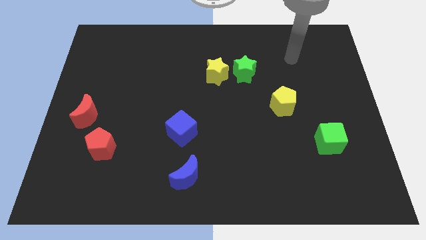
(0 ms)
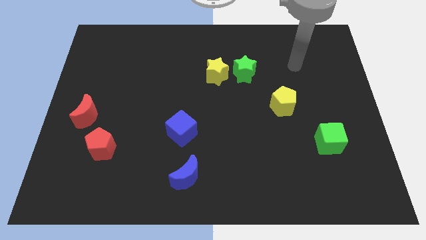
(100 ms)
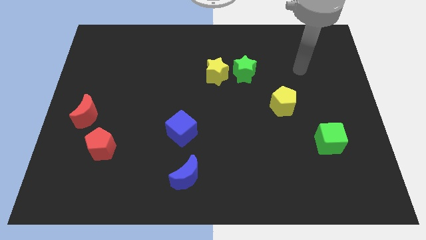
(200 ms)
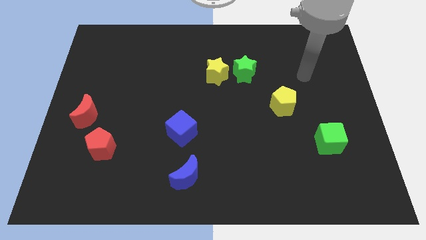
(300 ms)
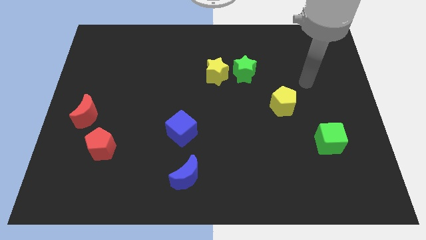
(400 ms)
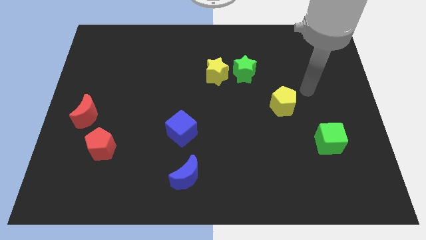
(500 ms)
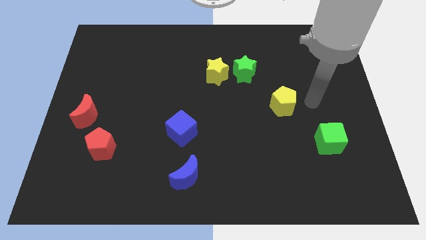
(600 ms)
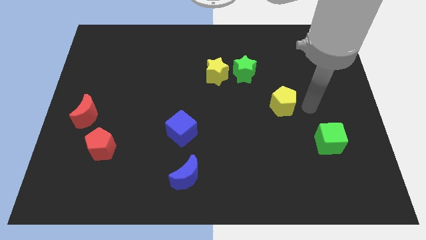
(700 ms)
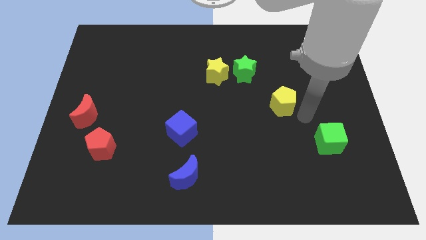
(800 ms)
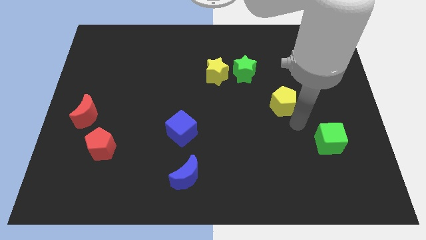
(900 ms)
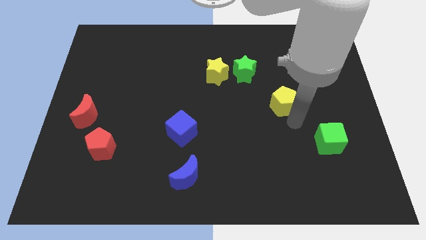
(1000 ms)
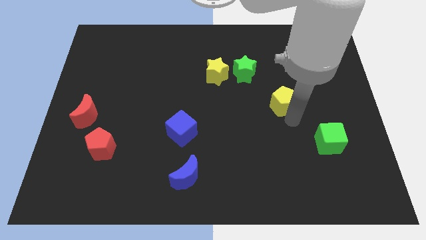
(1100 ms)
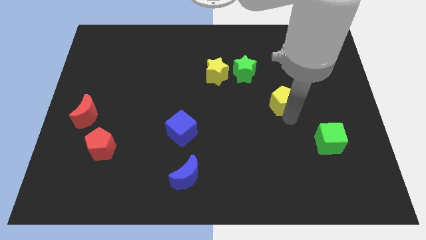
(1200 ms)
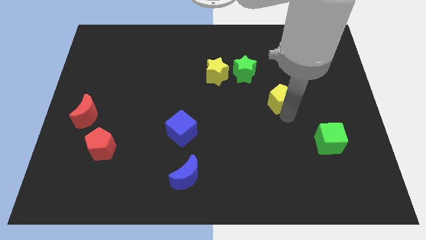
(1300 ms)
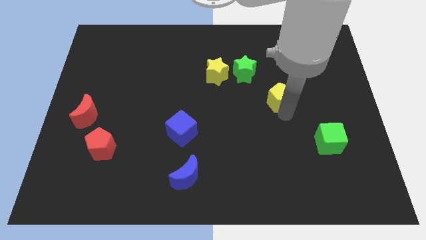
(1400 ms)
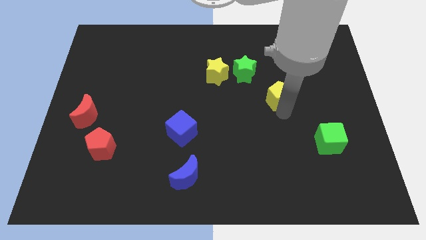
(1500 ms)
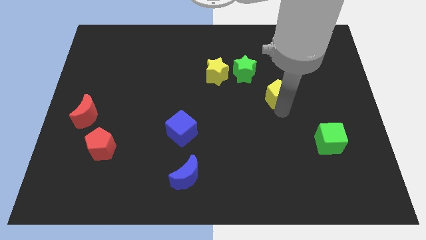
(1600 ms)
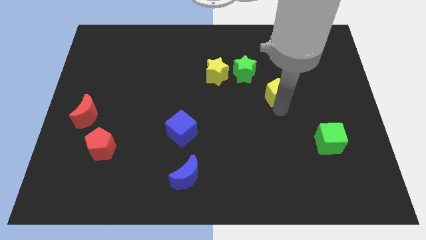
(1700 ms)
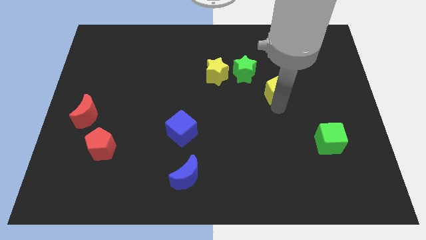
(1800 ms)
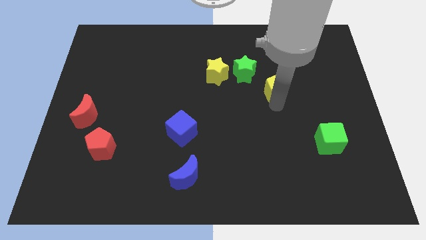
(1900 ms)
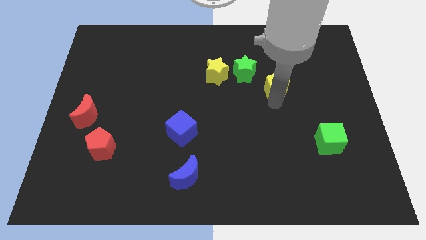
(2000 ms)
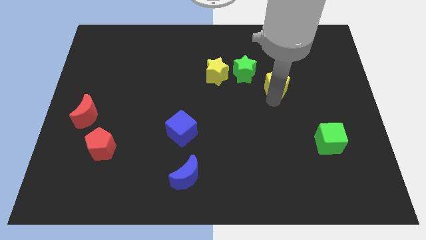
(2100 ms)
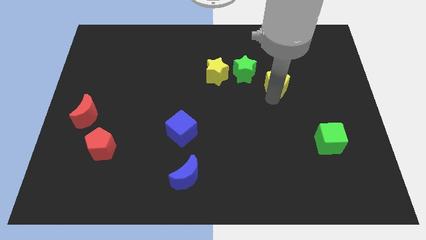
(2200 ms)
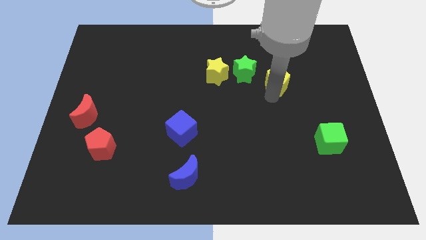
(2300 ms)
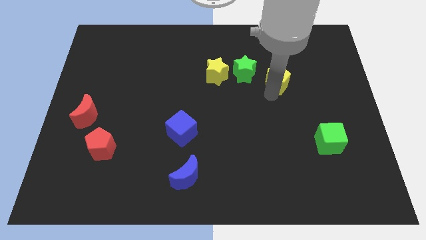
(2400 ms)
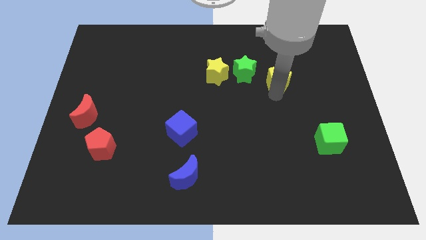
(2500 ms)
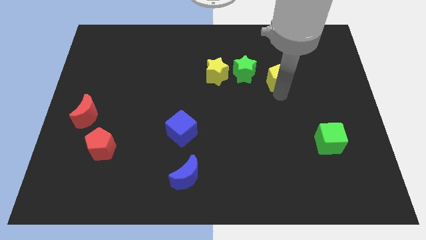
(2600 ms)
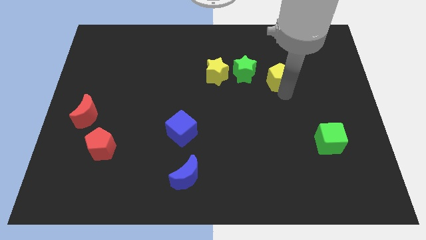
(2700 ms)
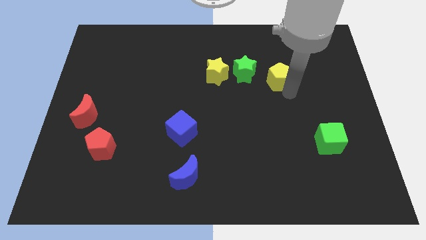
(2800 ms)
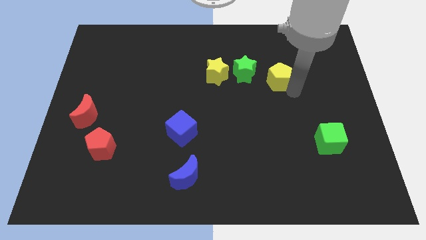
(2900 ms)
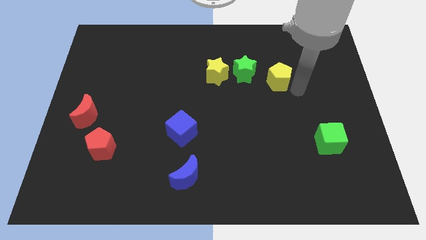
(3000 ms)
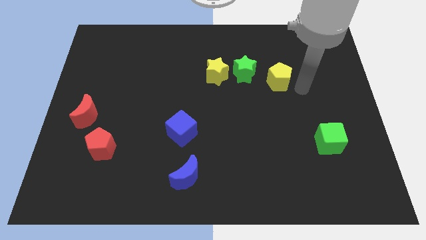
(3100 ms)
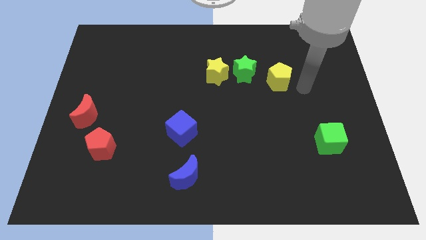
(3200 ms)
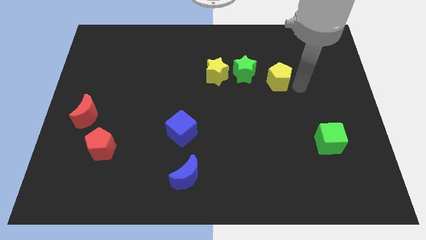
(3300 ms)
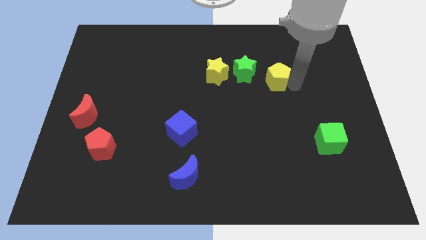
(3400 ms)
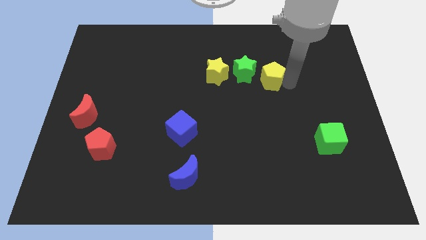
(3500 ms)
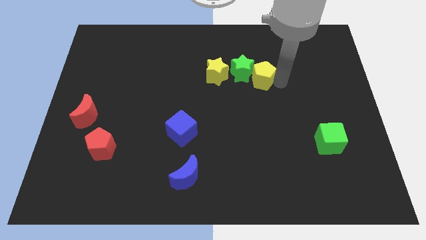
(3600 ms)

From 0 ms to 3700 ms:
push the yellow pentagon a little bit upwards and left

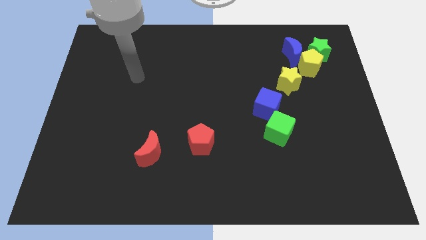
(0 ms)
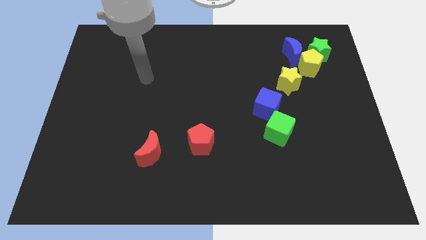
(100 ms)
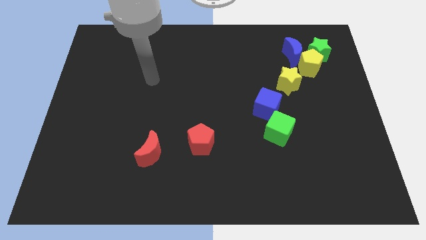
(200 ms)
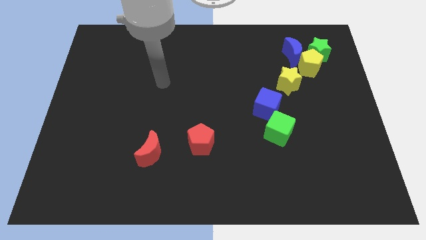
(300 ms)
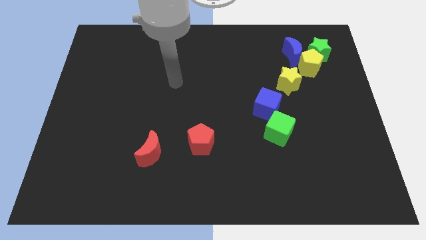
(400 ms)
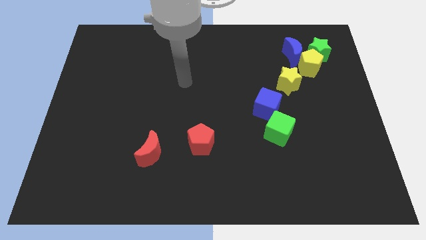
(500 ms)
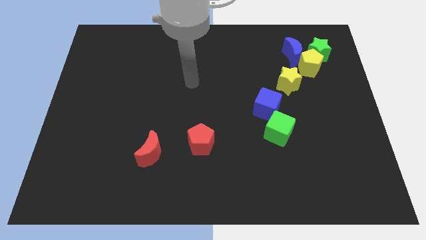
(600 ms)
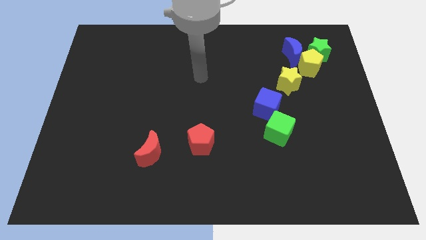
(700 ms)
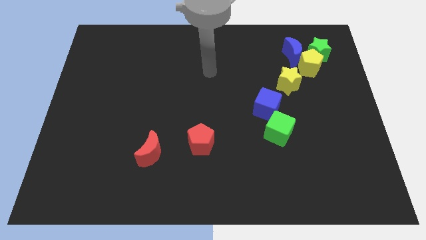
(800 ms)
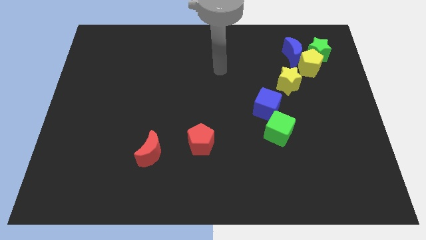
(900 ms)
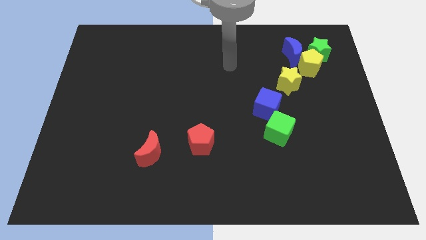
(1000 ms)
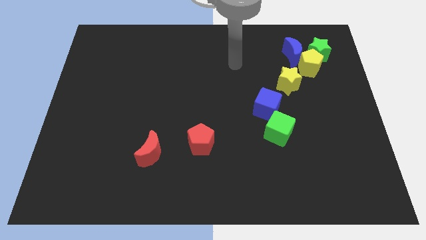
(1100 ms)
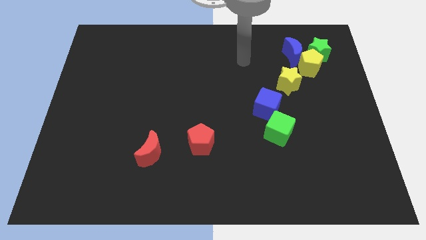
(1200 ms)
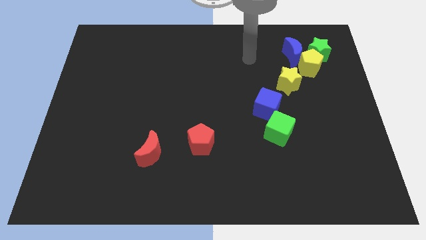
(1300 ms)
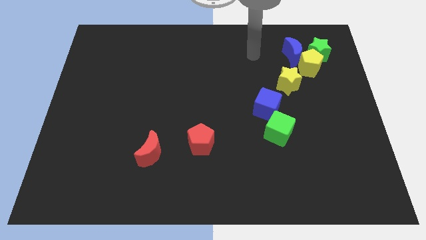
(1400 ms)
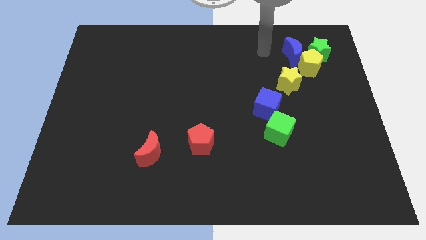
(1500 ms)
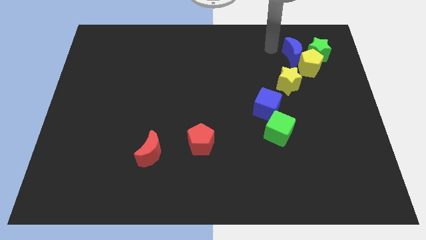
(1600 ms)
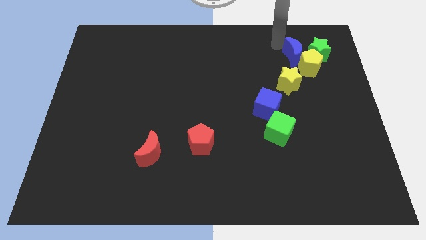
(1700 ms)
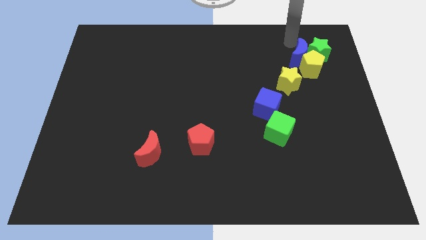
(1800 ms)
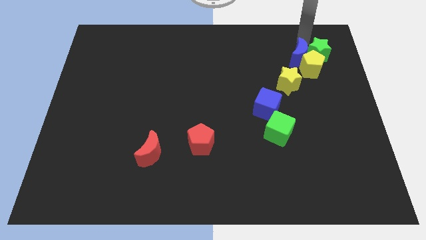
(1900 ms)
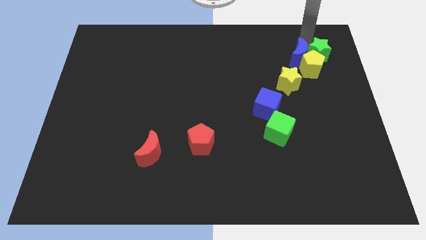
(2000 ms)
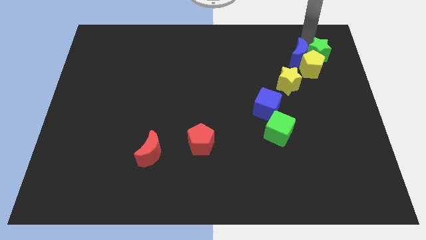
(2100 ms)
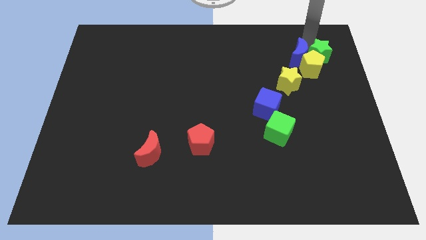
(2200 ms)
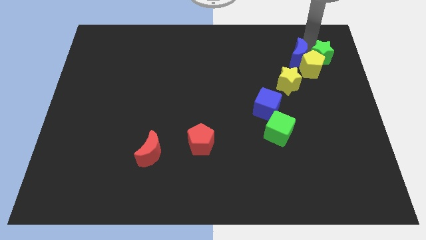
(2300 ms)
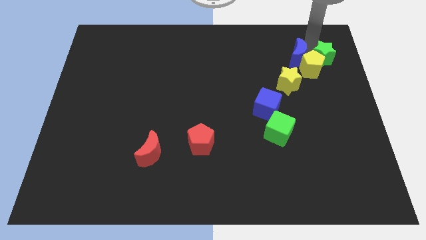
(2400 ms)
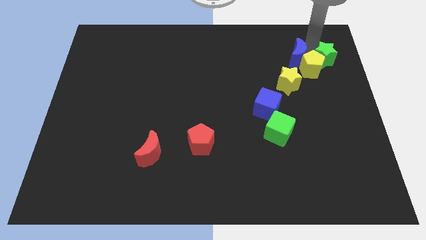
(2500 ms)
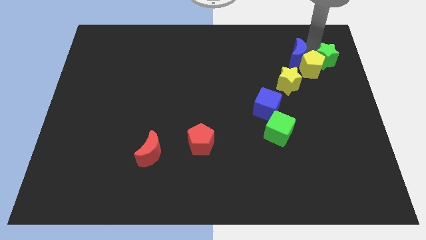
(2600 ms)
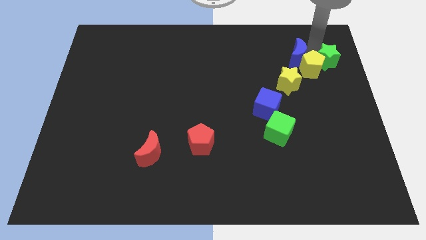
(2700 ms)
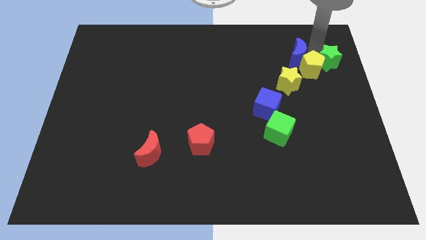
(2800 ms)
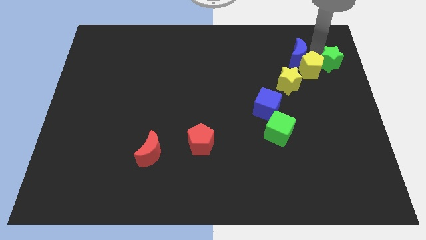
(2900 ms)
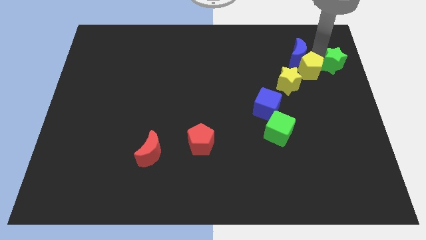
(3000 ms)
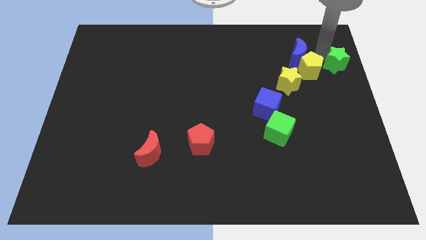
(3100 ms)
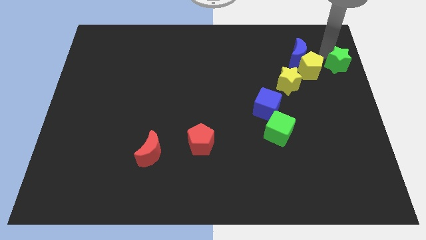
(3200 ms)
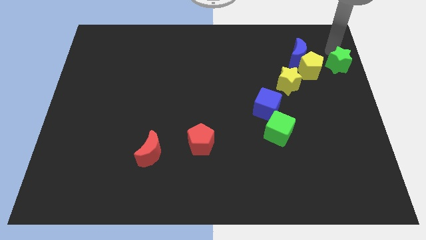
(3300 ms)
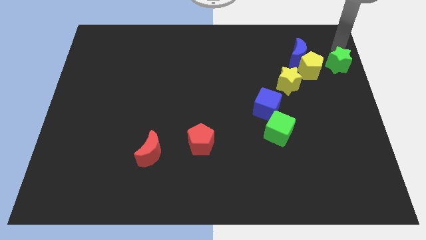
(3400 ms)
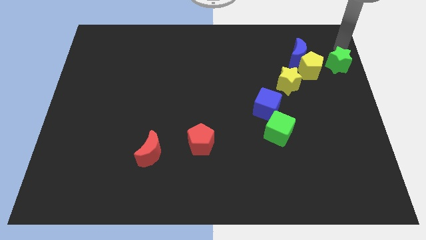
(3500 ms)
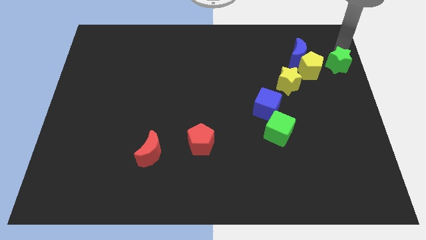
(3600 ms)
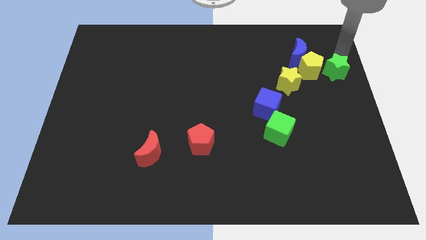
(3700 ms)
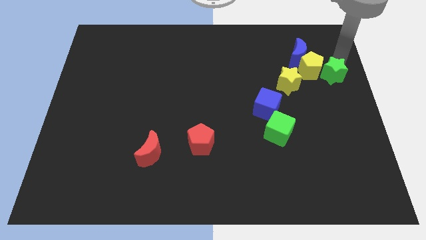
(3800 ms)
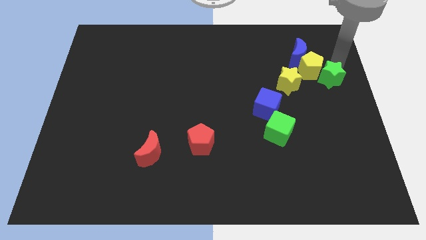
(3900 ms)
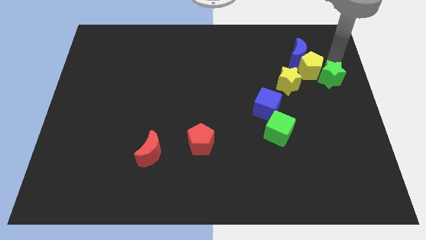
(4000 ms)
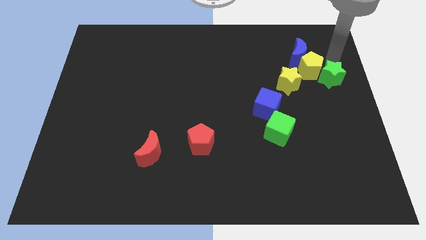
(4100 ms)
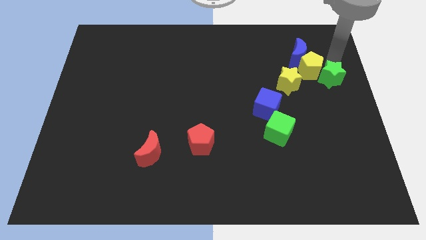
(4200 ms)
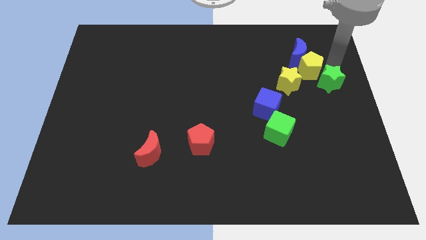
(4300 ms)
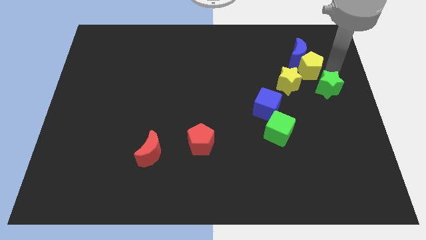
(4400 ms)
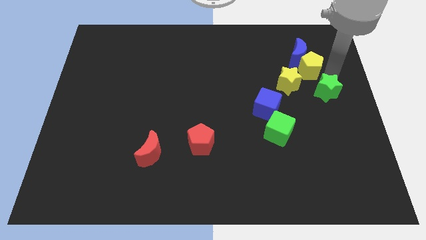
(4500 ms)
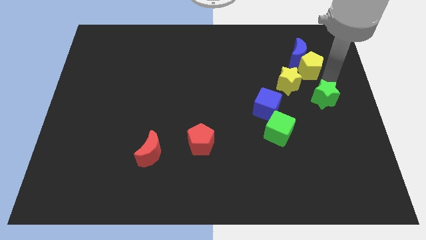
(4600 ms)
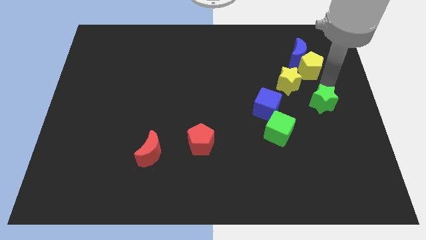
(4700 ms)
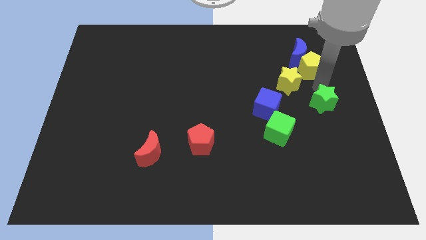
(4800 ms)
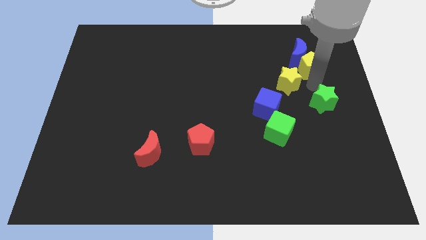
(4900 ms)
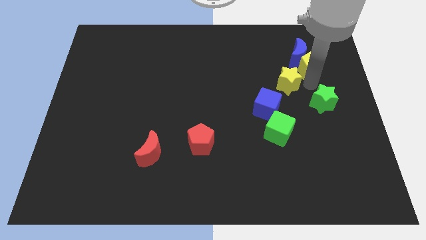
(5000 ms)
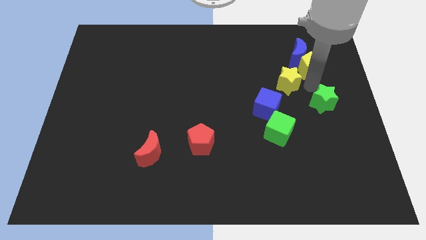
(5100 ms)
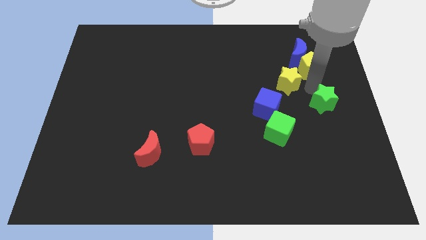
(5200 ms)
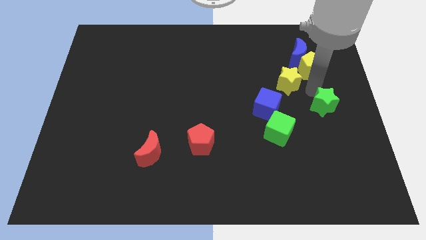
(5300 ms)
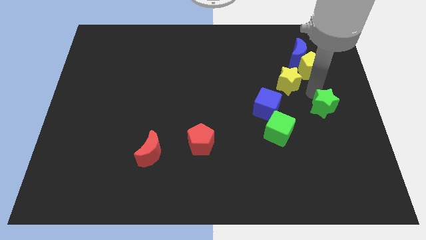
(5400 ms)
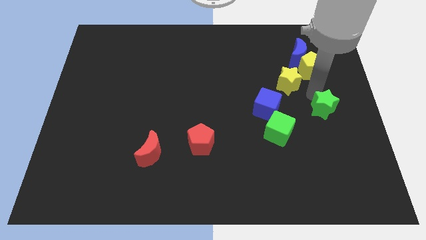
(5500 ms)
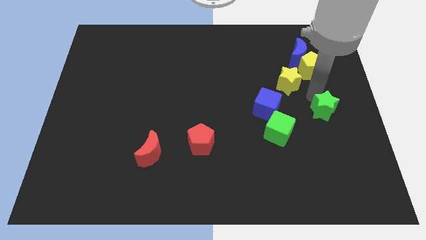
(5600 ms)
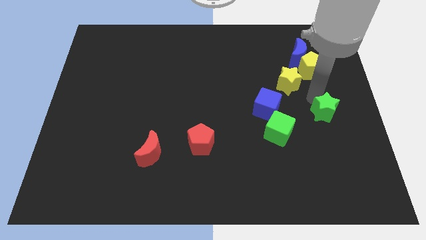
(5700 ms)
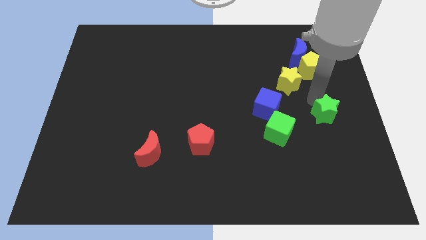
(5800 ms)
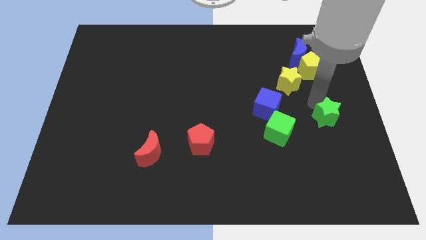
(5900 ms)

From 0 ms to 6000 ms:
slide the green star downwards
